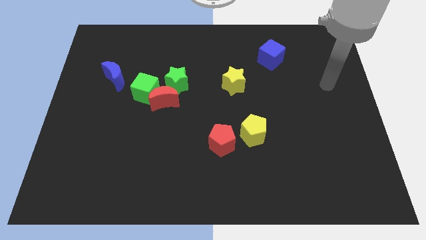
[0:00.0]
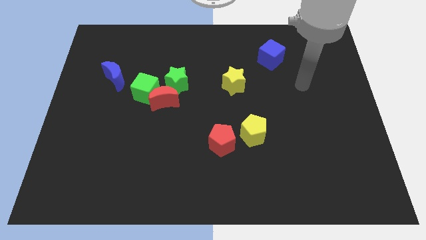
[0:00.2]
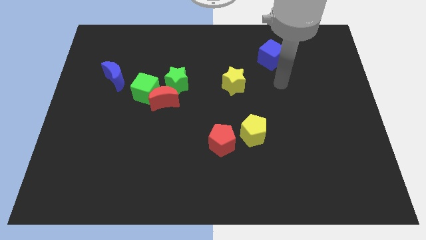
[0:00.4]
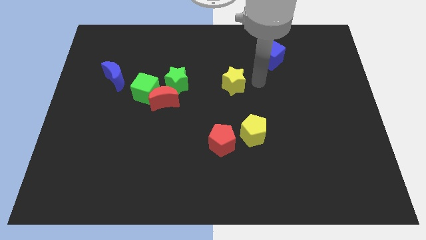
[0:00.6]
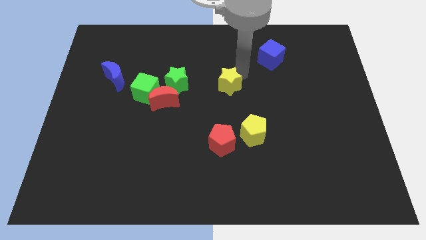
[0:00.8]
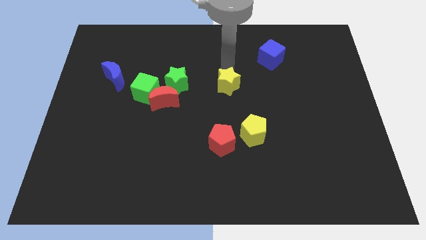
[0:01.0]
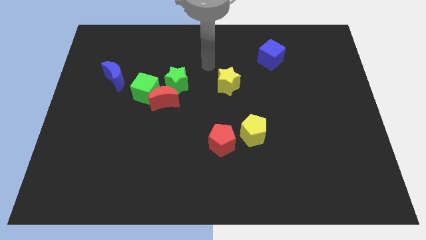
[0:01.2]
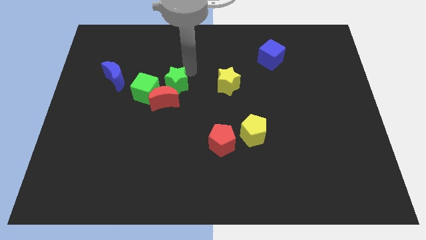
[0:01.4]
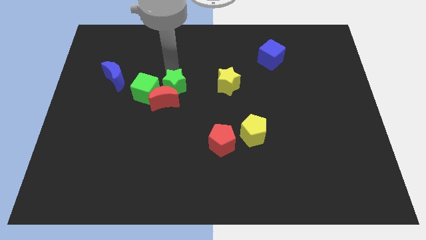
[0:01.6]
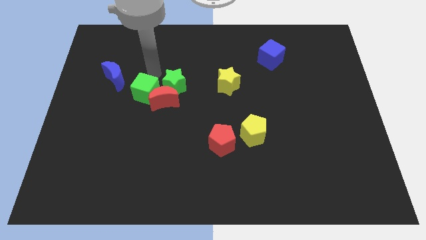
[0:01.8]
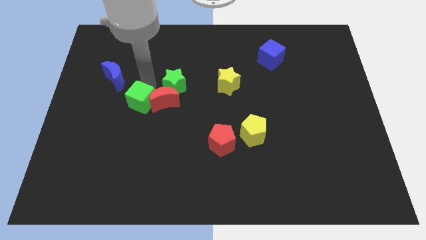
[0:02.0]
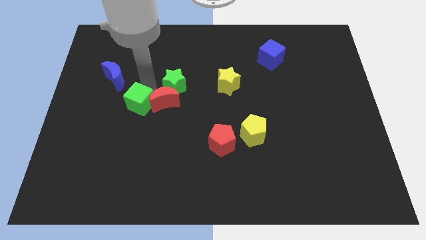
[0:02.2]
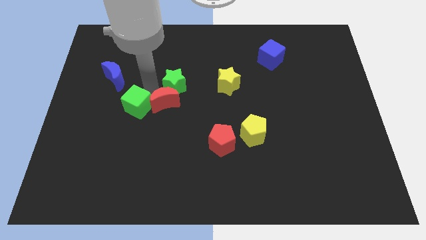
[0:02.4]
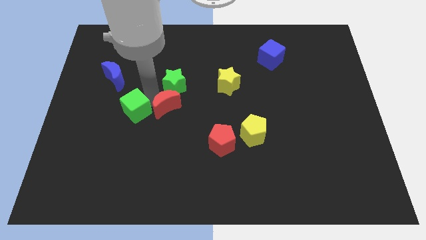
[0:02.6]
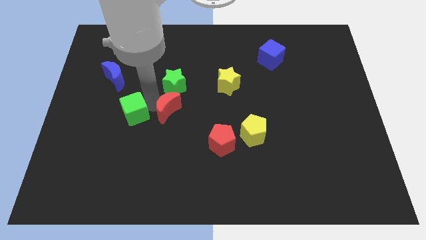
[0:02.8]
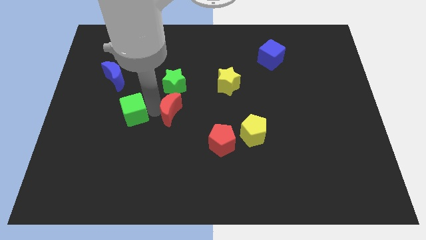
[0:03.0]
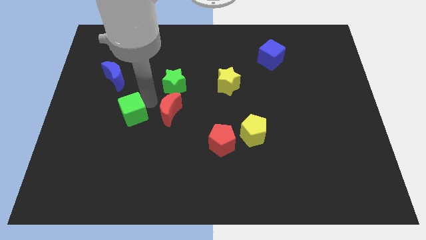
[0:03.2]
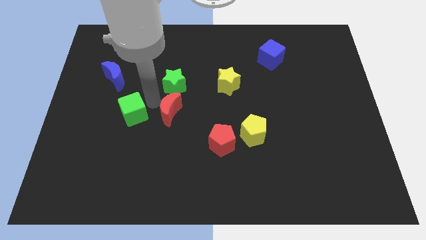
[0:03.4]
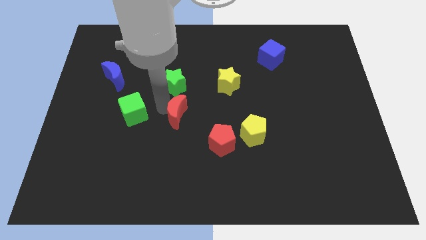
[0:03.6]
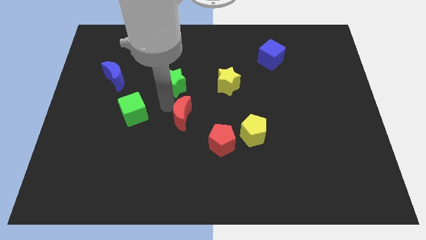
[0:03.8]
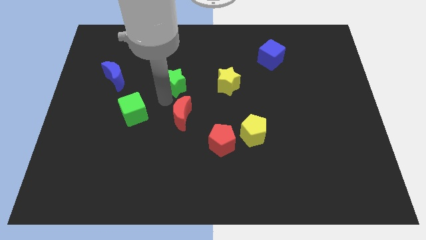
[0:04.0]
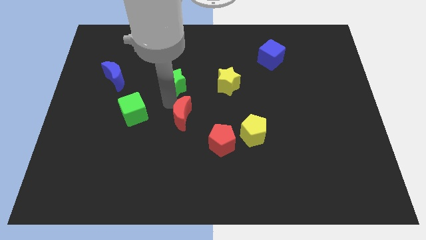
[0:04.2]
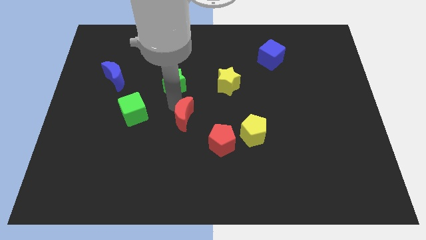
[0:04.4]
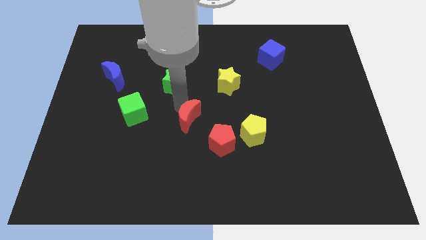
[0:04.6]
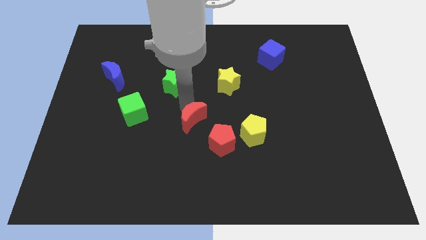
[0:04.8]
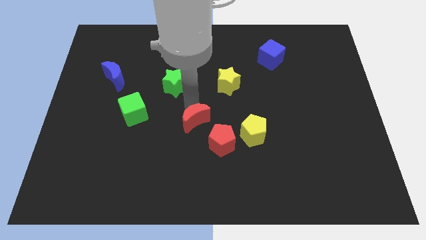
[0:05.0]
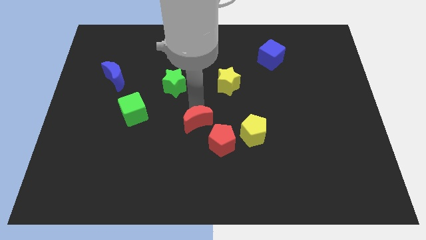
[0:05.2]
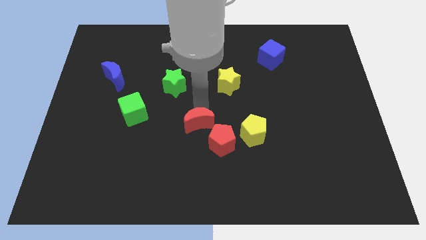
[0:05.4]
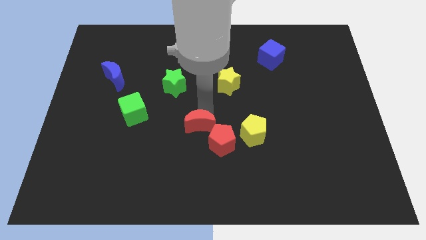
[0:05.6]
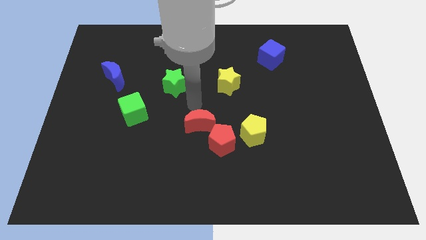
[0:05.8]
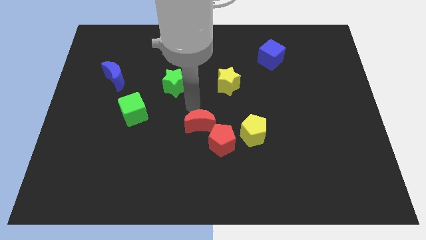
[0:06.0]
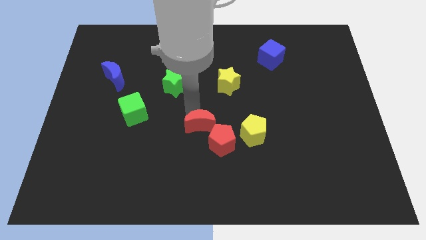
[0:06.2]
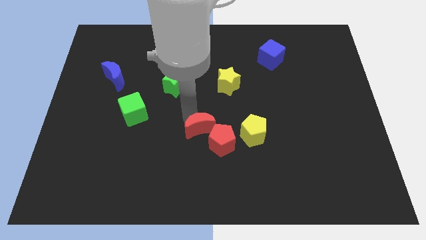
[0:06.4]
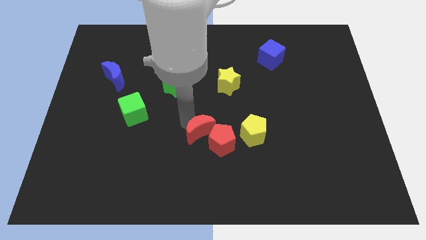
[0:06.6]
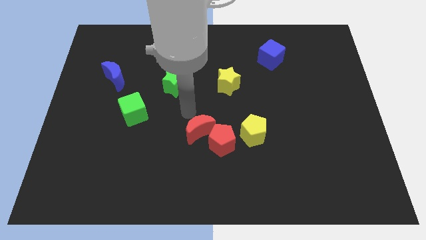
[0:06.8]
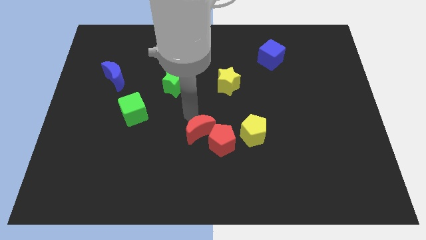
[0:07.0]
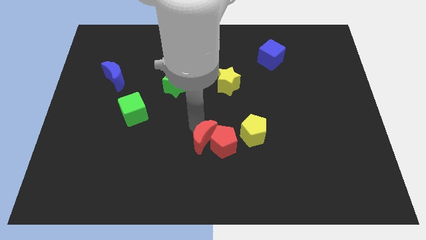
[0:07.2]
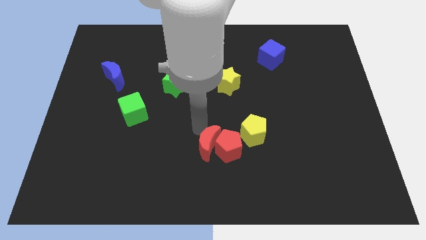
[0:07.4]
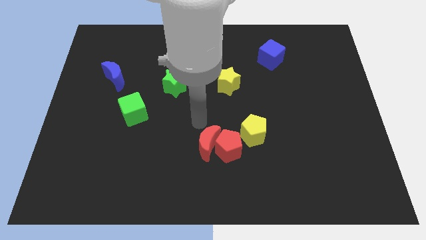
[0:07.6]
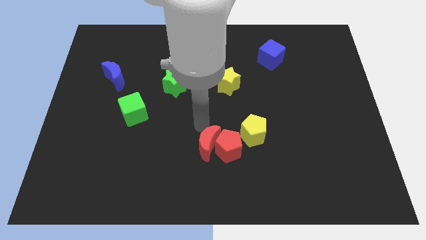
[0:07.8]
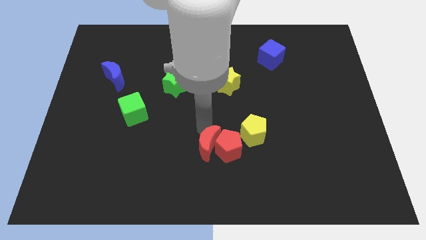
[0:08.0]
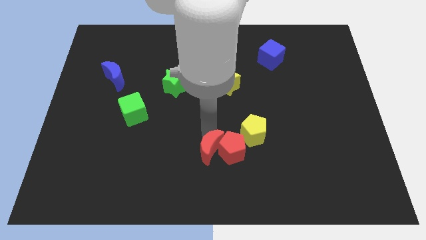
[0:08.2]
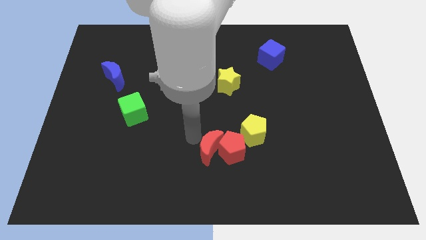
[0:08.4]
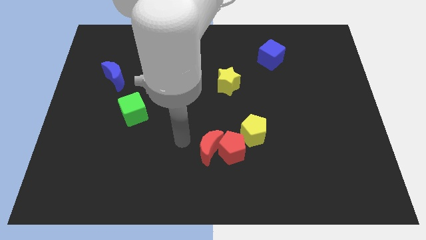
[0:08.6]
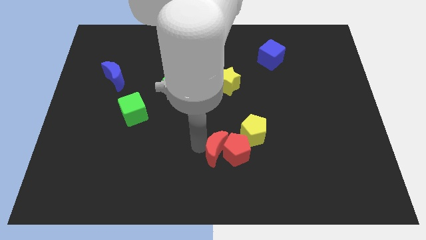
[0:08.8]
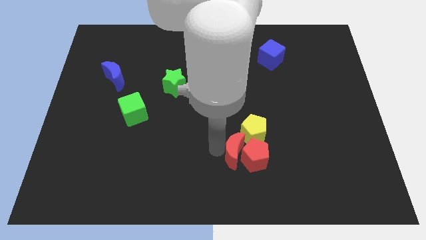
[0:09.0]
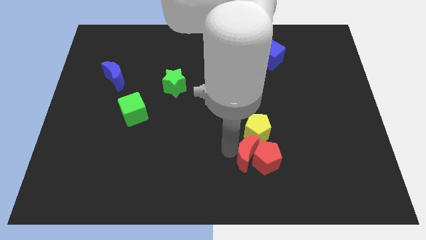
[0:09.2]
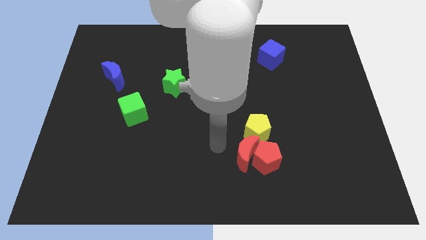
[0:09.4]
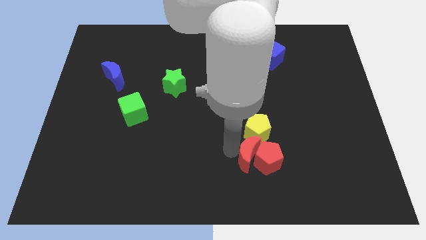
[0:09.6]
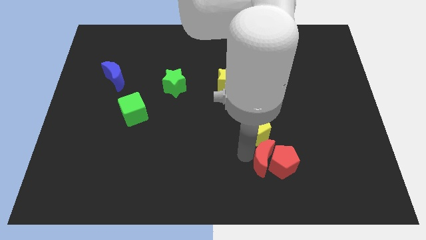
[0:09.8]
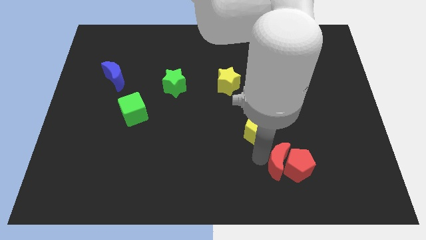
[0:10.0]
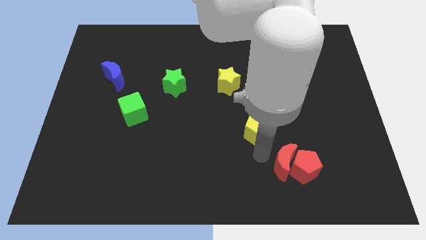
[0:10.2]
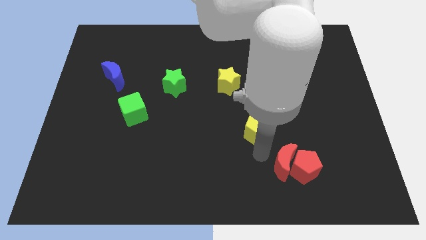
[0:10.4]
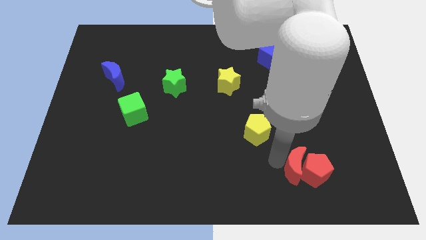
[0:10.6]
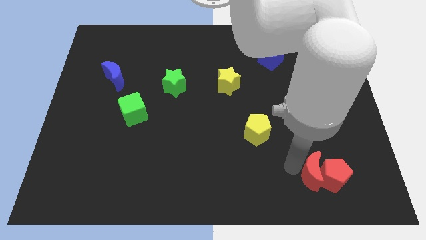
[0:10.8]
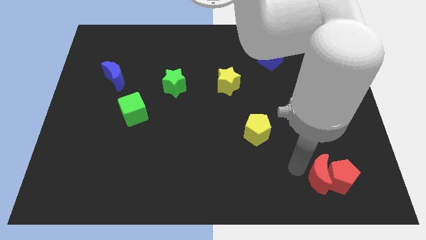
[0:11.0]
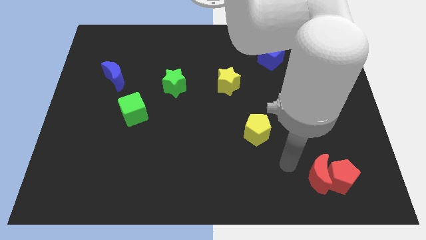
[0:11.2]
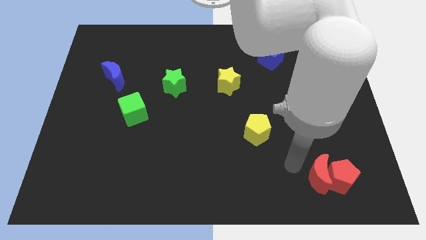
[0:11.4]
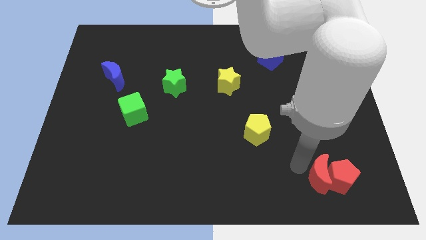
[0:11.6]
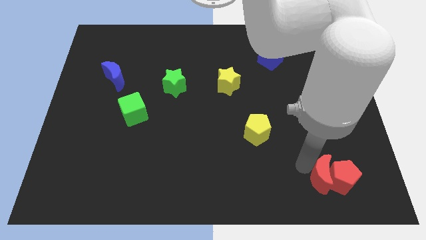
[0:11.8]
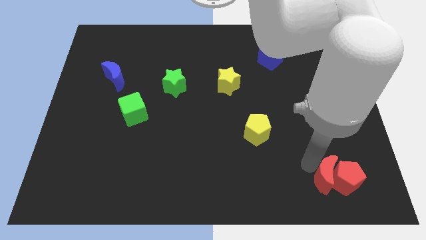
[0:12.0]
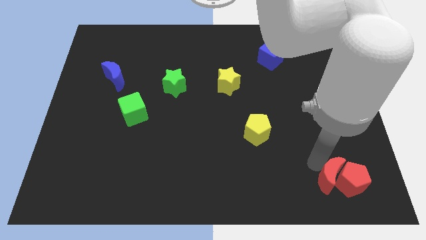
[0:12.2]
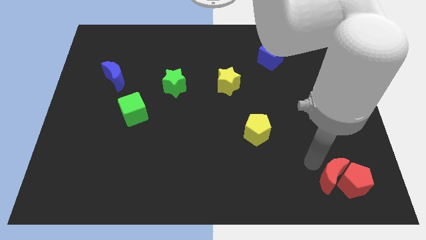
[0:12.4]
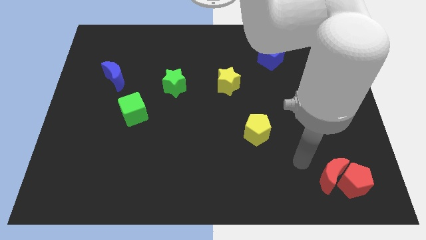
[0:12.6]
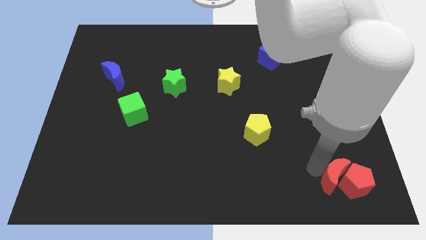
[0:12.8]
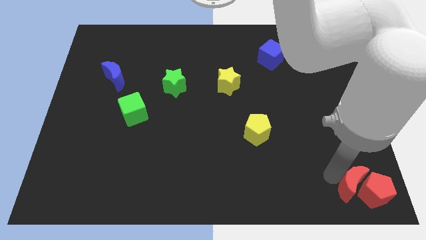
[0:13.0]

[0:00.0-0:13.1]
slide the red moon to the bottom right

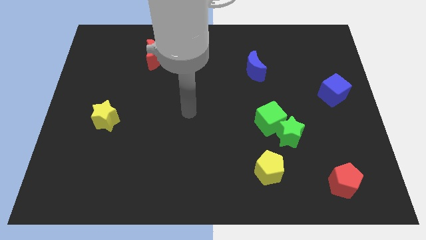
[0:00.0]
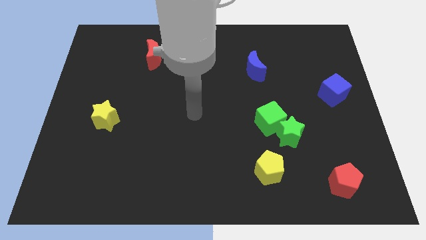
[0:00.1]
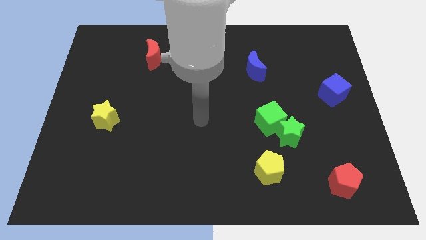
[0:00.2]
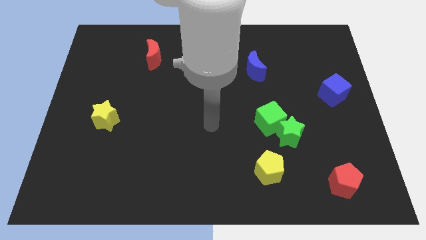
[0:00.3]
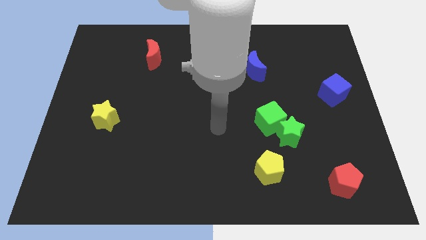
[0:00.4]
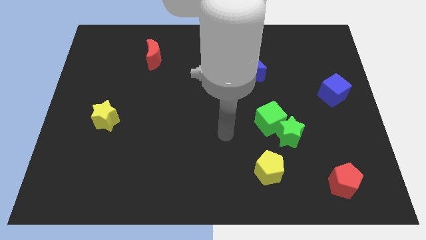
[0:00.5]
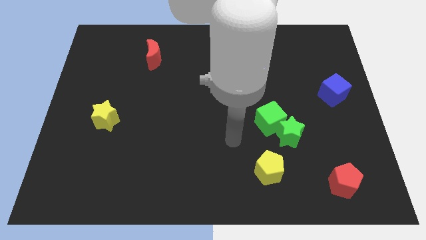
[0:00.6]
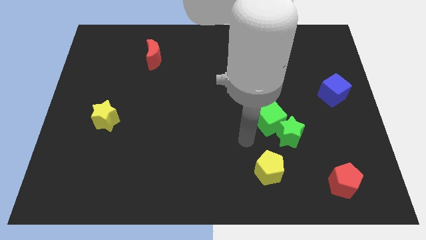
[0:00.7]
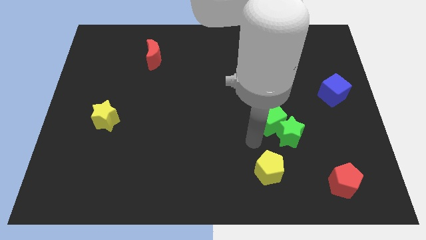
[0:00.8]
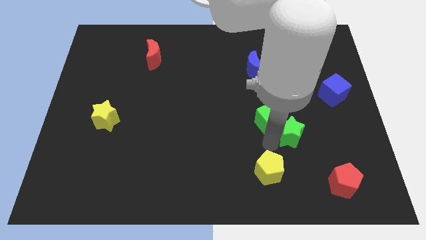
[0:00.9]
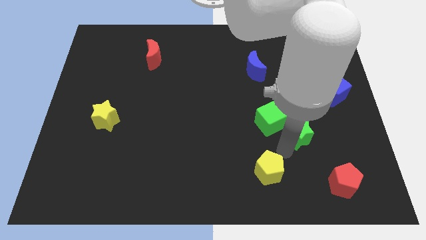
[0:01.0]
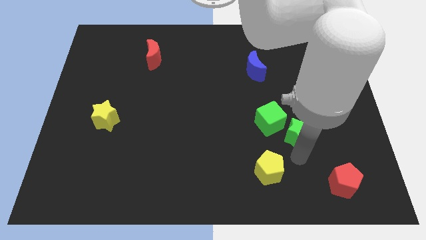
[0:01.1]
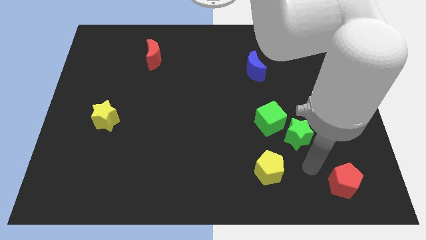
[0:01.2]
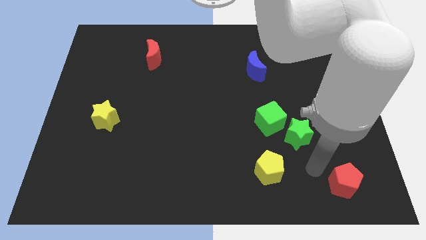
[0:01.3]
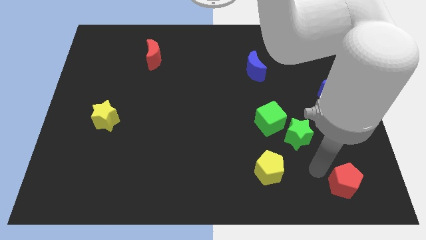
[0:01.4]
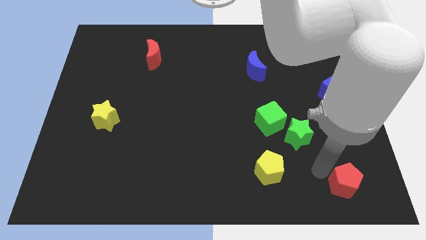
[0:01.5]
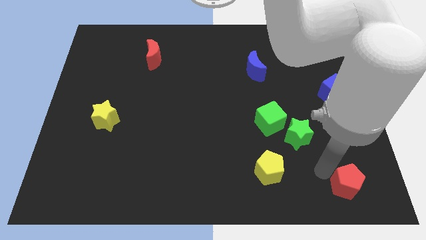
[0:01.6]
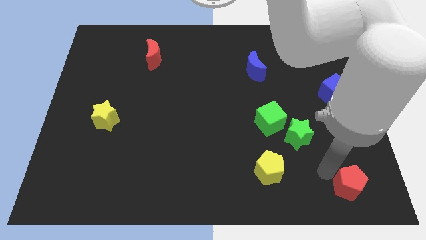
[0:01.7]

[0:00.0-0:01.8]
push the red pentagon to the lower right corner
